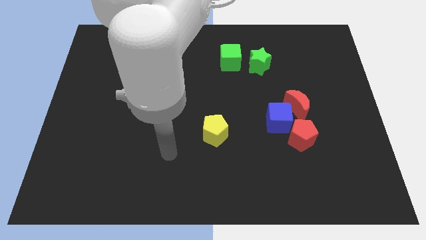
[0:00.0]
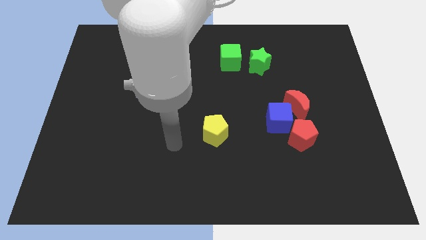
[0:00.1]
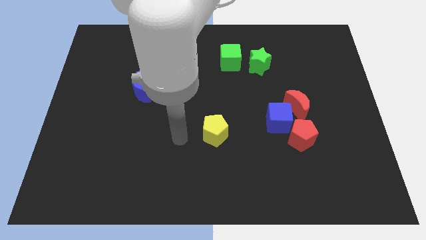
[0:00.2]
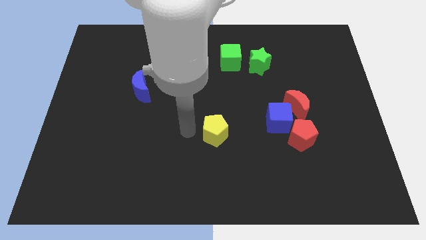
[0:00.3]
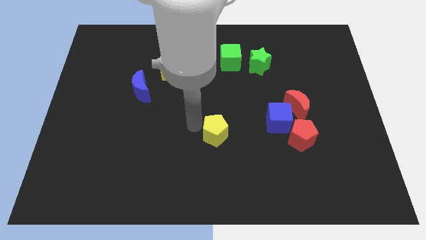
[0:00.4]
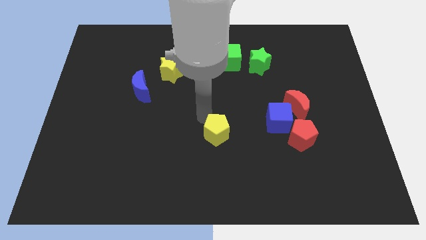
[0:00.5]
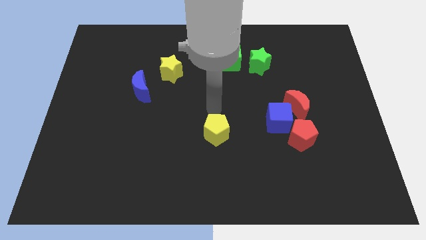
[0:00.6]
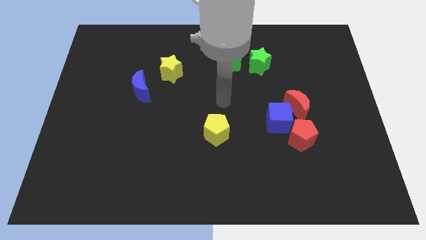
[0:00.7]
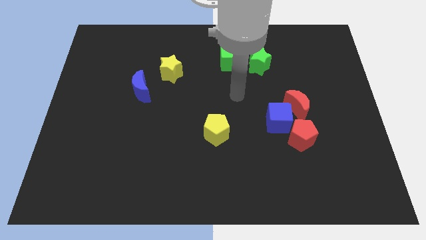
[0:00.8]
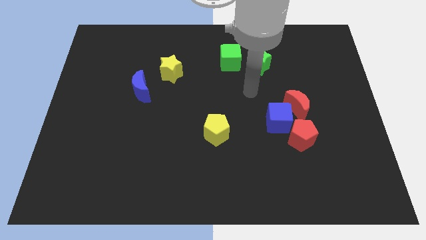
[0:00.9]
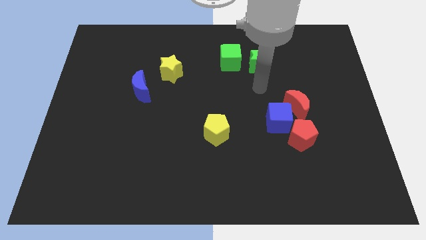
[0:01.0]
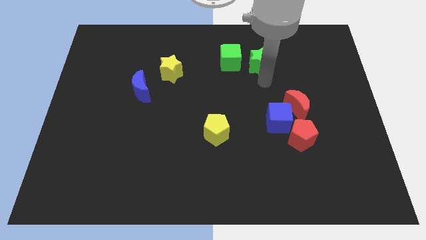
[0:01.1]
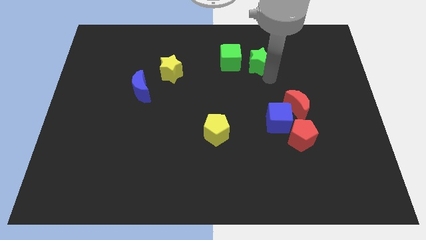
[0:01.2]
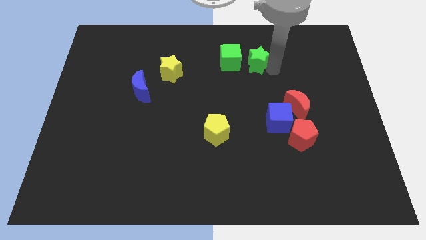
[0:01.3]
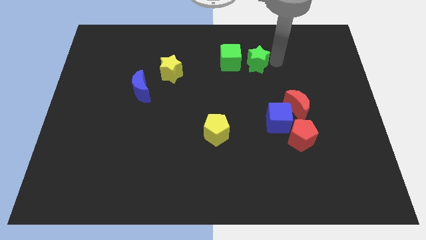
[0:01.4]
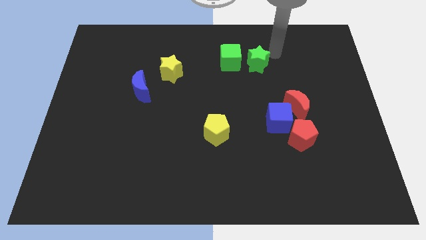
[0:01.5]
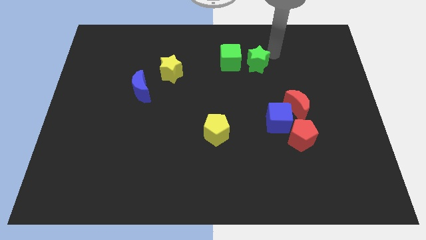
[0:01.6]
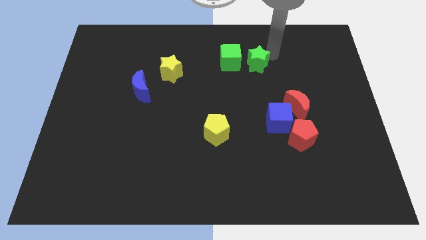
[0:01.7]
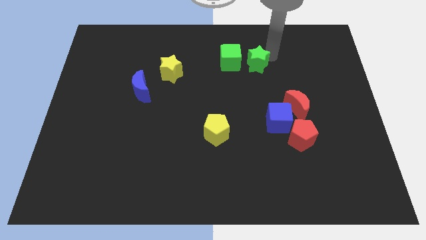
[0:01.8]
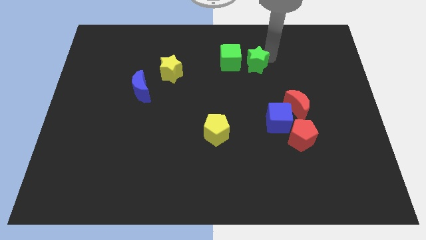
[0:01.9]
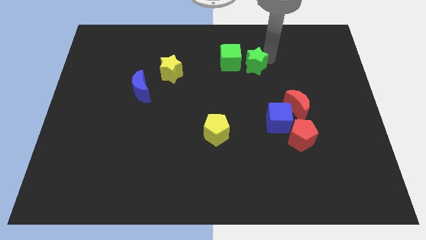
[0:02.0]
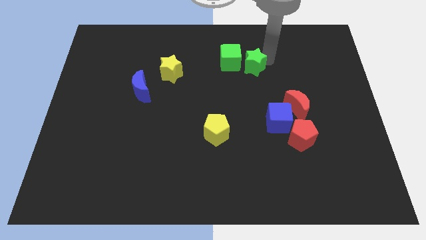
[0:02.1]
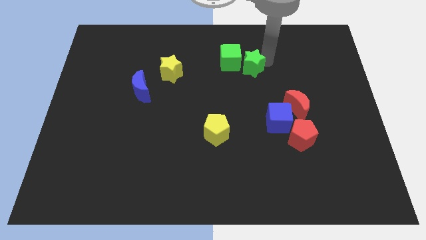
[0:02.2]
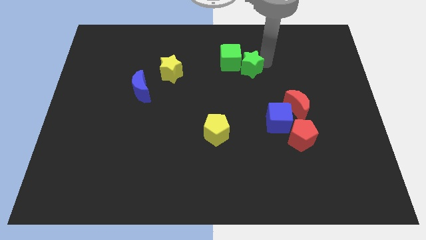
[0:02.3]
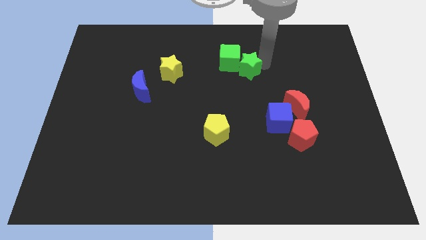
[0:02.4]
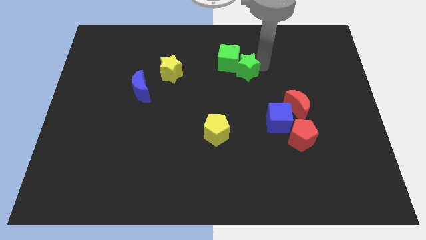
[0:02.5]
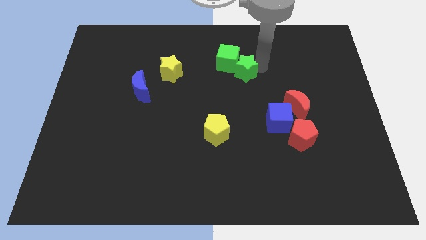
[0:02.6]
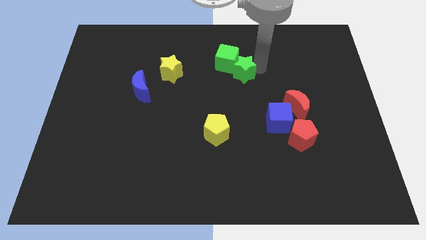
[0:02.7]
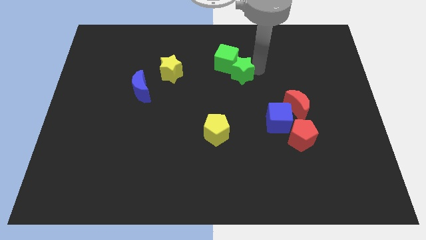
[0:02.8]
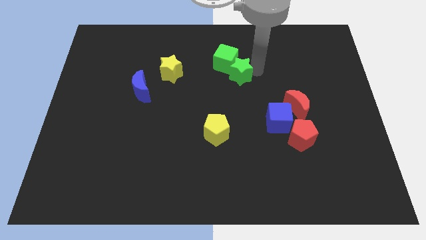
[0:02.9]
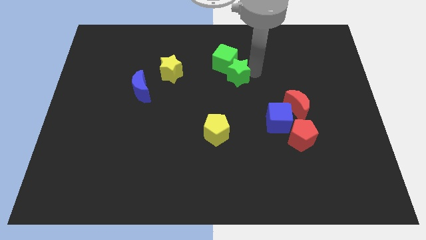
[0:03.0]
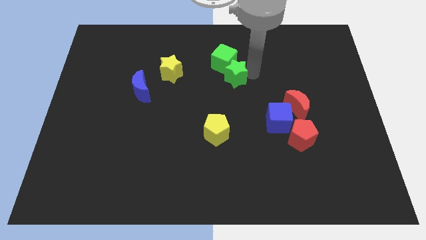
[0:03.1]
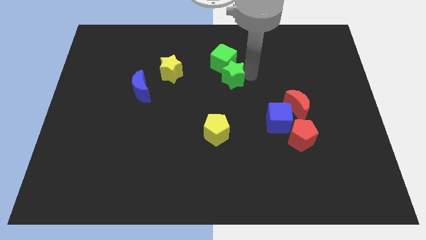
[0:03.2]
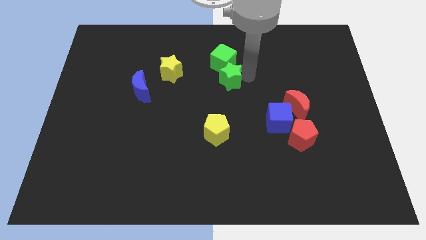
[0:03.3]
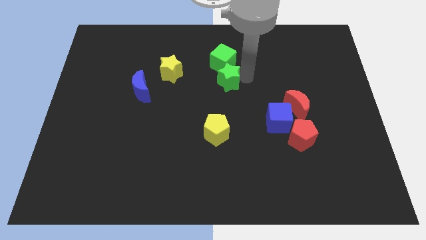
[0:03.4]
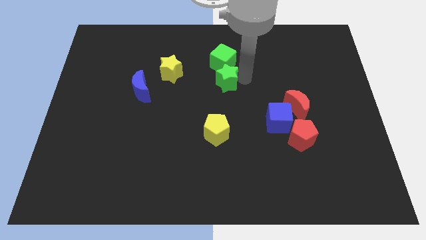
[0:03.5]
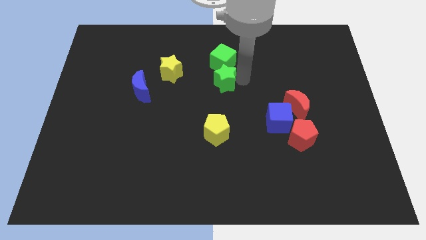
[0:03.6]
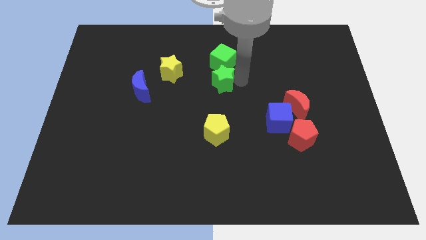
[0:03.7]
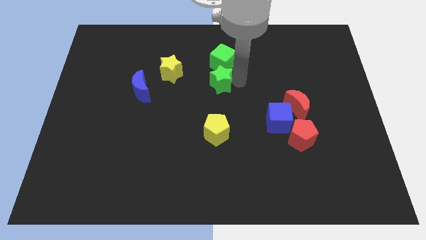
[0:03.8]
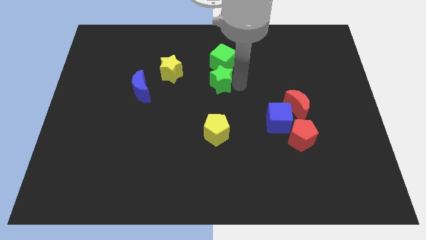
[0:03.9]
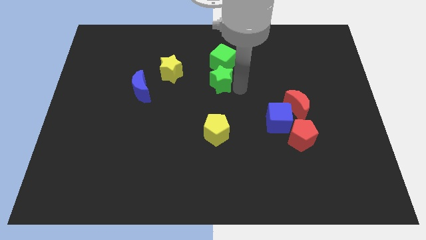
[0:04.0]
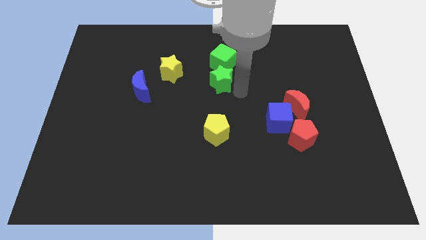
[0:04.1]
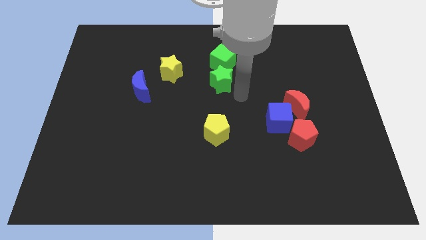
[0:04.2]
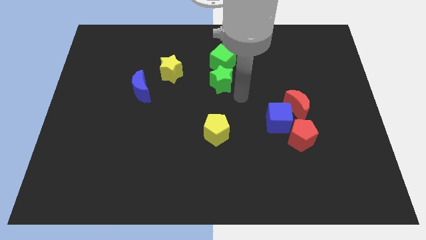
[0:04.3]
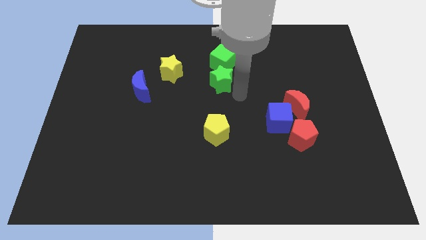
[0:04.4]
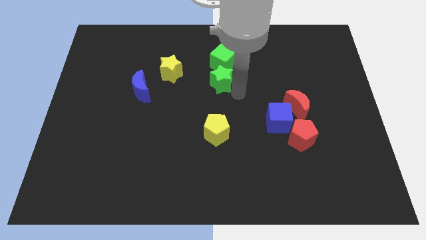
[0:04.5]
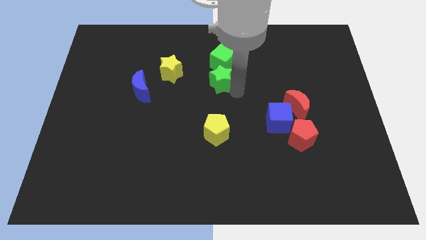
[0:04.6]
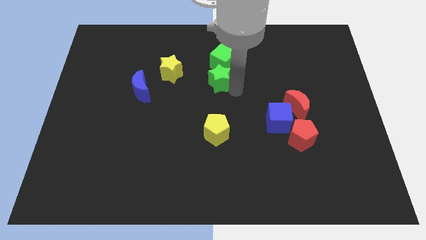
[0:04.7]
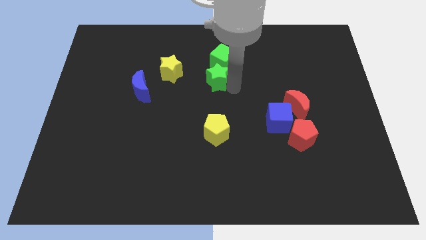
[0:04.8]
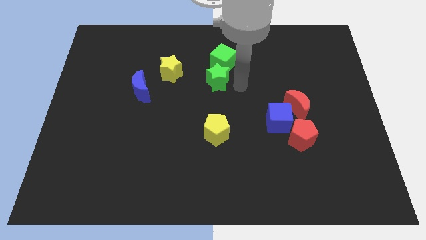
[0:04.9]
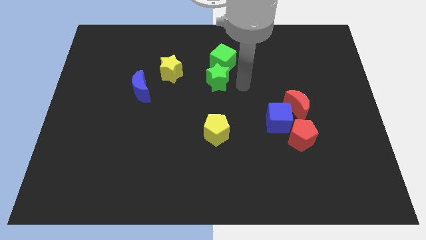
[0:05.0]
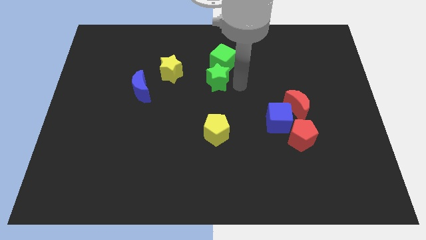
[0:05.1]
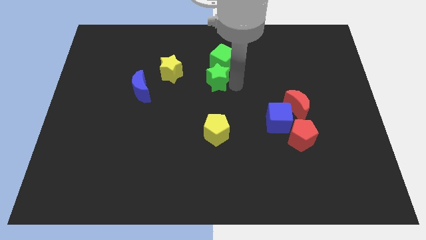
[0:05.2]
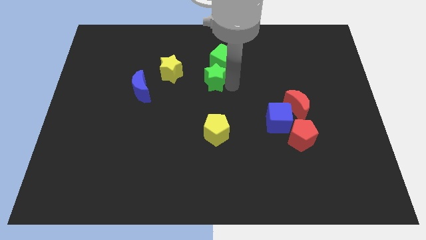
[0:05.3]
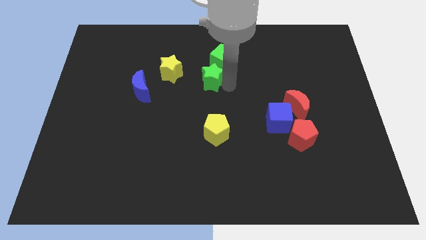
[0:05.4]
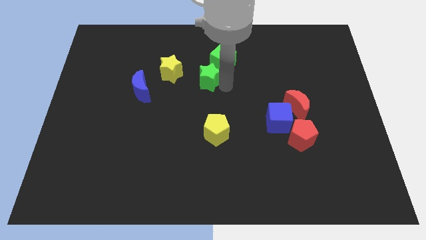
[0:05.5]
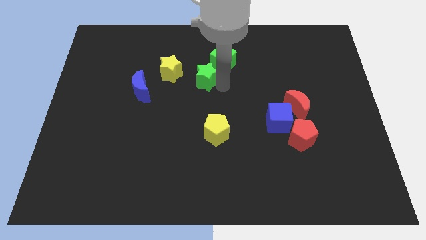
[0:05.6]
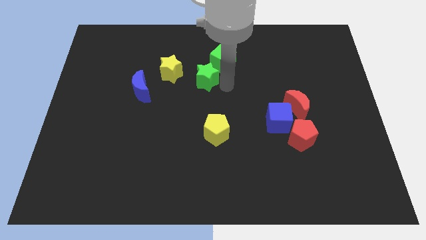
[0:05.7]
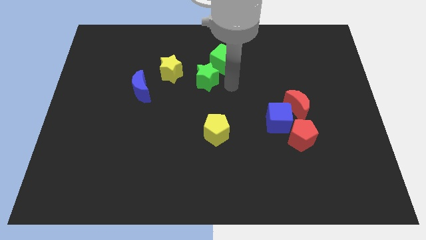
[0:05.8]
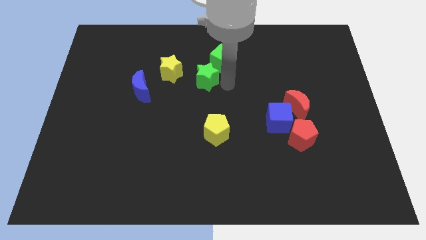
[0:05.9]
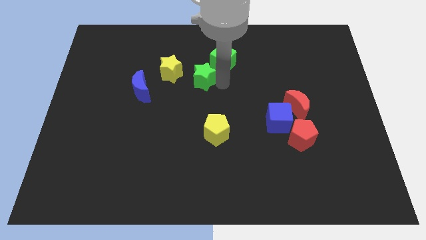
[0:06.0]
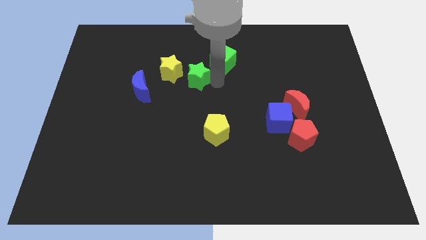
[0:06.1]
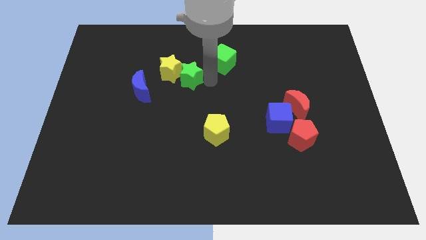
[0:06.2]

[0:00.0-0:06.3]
slide the green star close to the yellow star

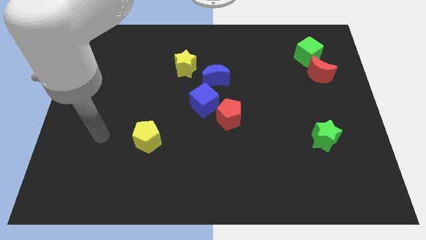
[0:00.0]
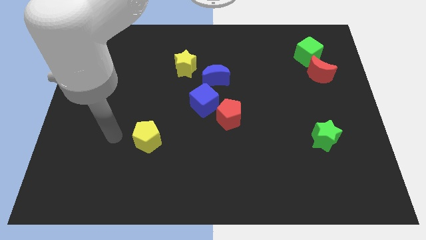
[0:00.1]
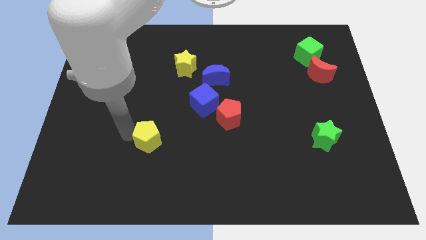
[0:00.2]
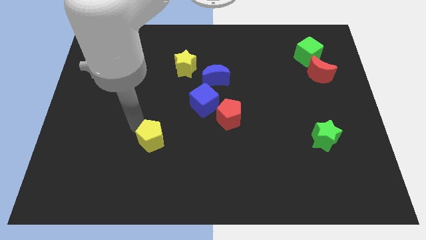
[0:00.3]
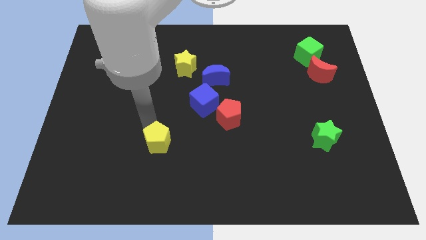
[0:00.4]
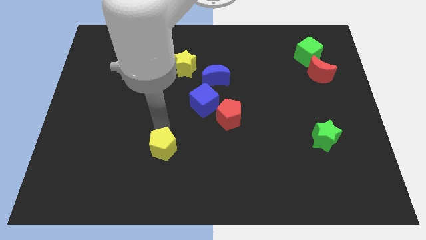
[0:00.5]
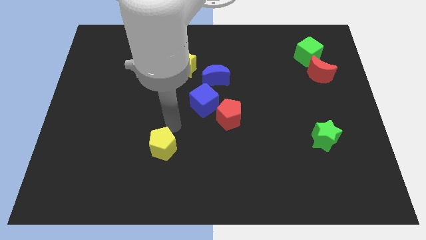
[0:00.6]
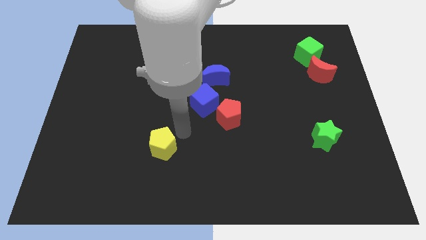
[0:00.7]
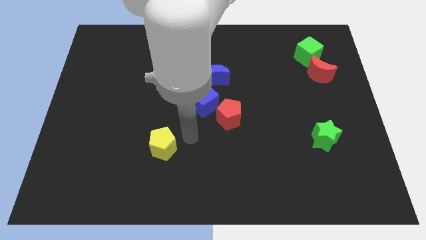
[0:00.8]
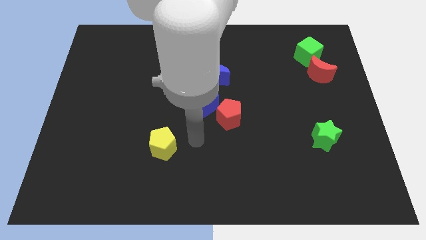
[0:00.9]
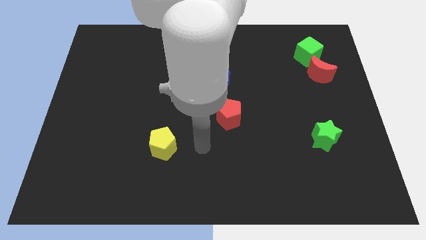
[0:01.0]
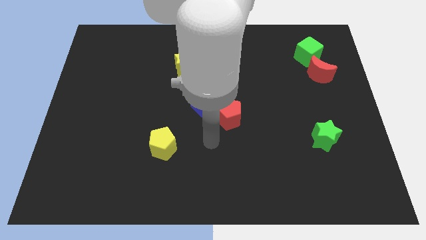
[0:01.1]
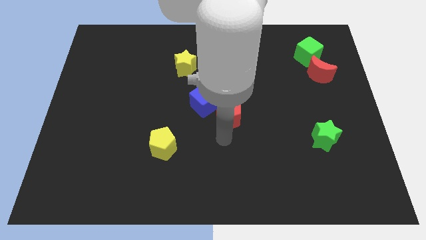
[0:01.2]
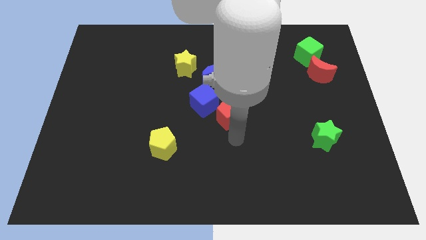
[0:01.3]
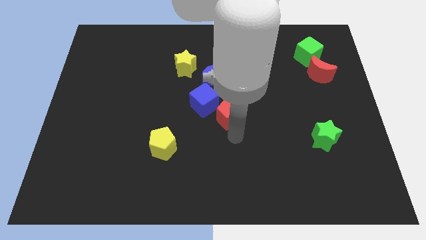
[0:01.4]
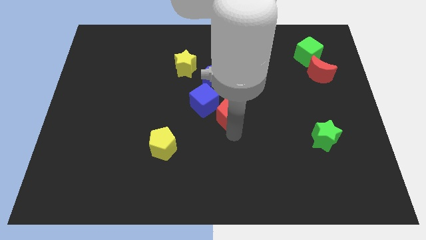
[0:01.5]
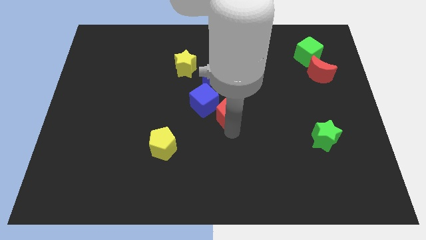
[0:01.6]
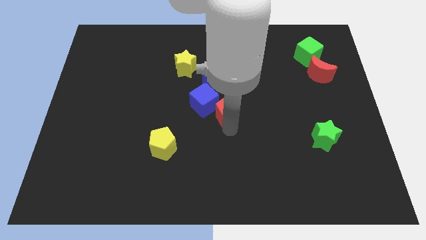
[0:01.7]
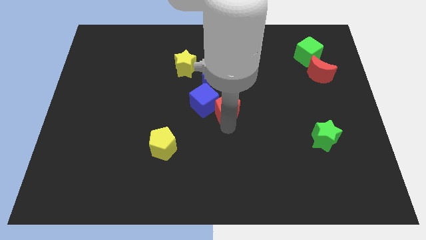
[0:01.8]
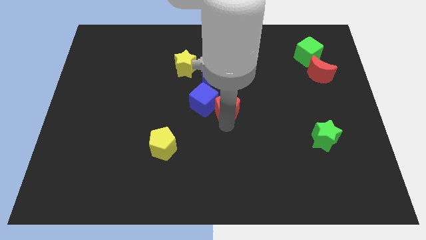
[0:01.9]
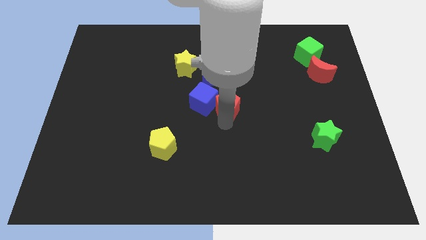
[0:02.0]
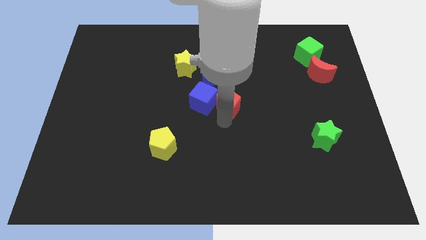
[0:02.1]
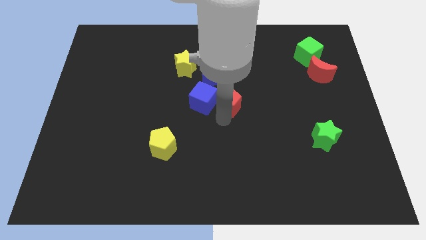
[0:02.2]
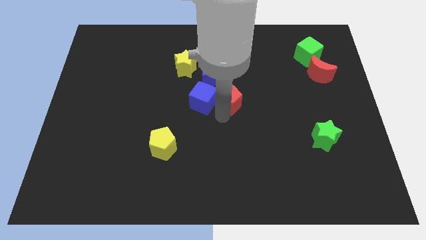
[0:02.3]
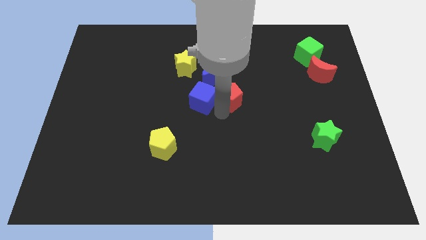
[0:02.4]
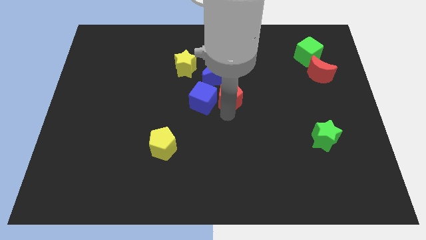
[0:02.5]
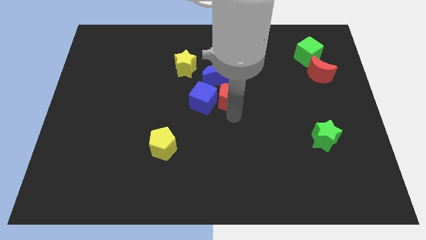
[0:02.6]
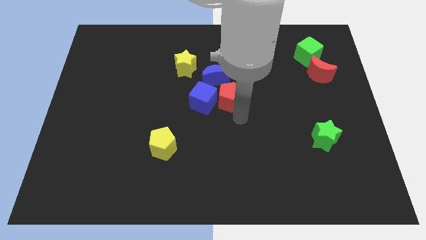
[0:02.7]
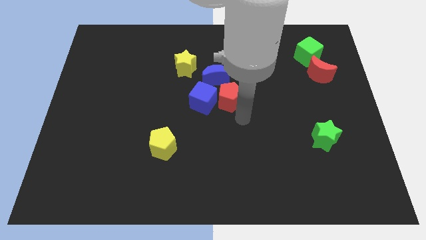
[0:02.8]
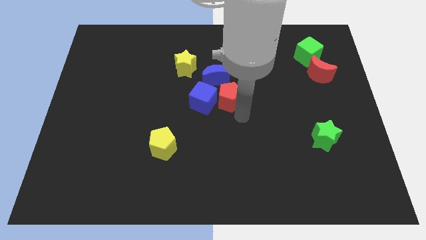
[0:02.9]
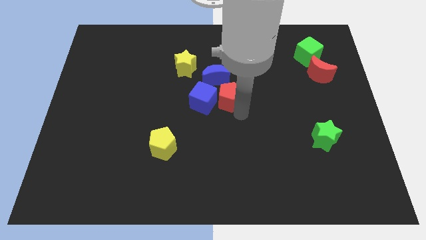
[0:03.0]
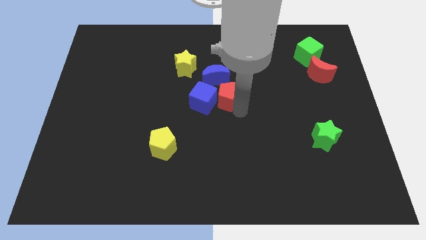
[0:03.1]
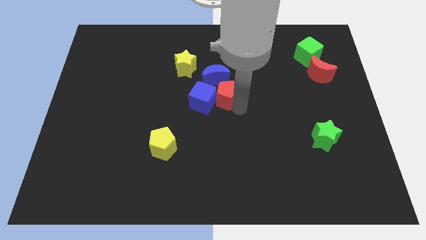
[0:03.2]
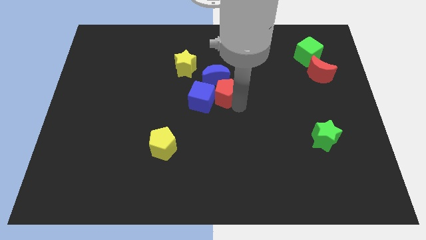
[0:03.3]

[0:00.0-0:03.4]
move the red pentagon towards the blue moon
